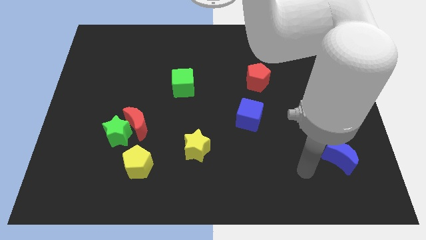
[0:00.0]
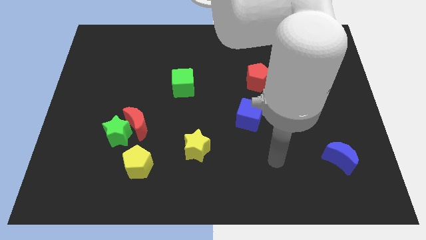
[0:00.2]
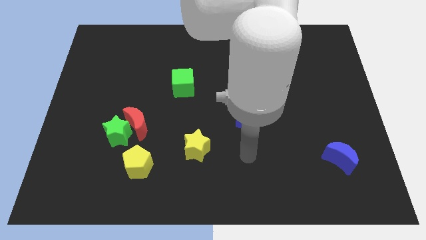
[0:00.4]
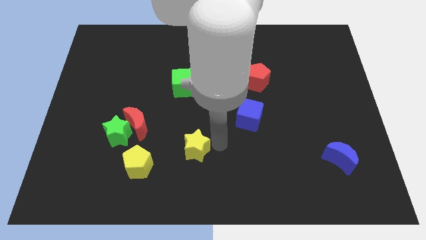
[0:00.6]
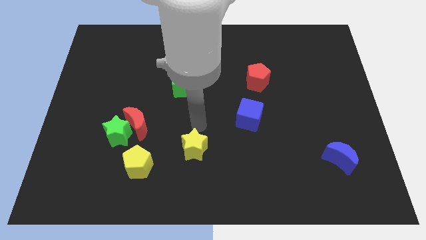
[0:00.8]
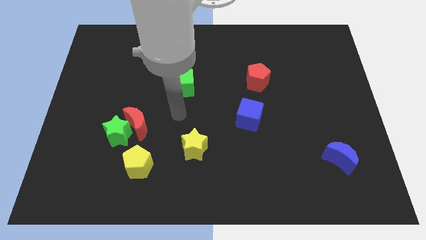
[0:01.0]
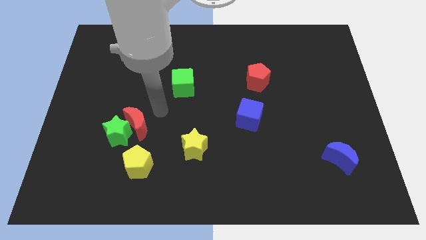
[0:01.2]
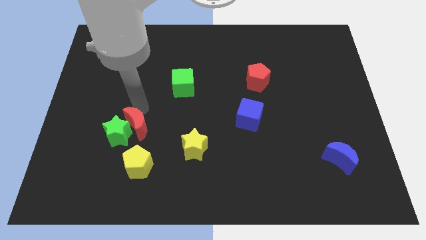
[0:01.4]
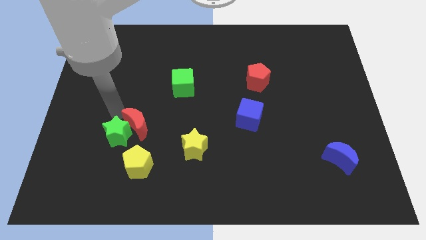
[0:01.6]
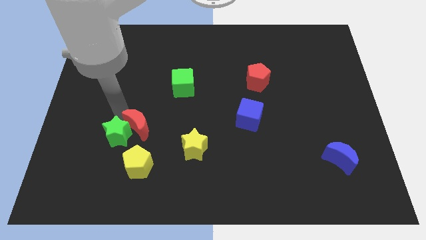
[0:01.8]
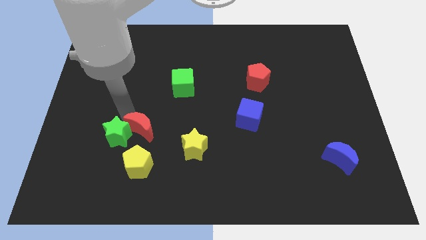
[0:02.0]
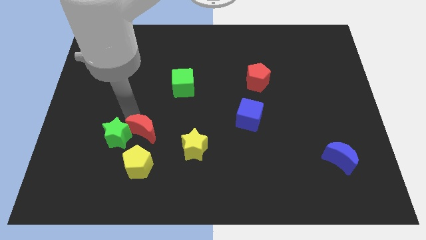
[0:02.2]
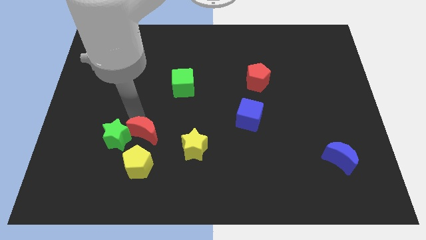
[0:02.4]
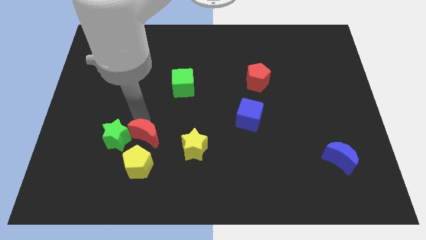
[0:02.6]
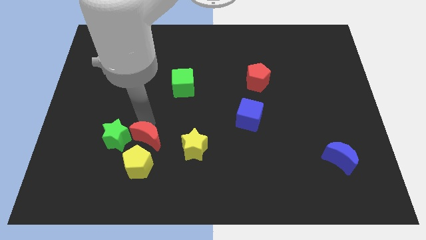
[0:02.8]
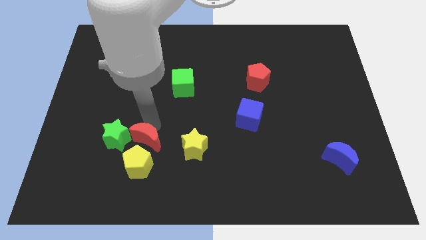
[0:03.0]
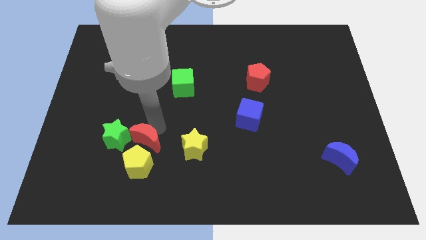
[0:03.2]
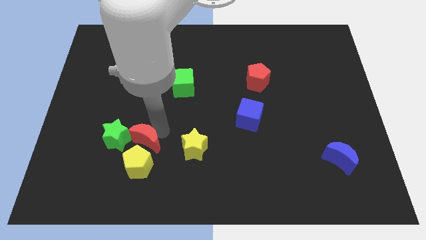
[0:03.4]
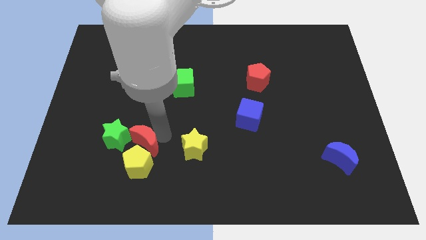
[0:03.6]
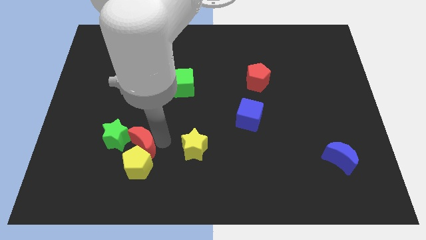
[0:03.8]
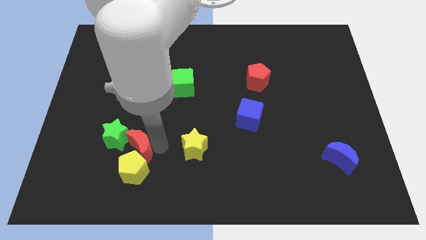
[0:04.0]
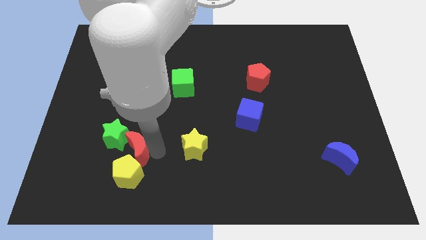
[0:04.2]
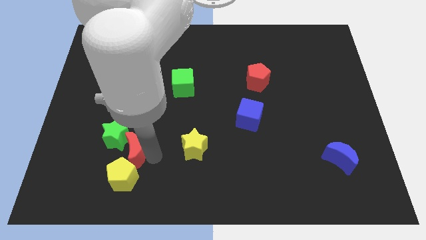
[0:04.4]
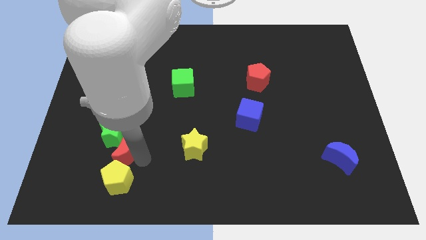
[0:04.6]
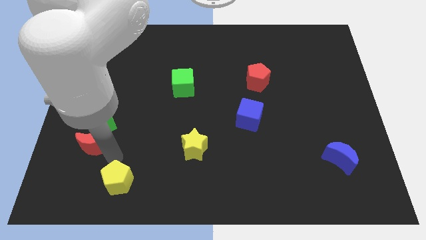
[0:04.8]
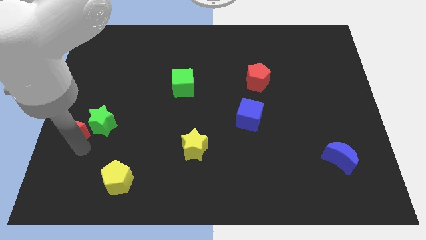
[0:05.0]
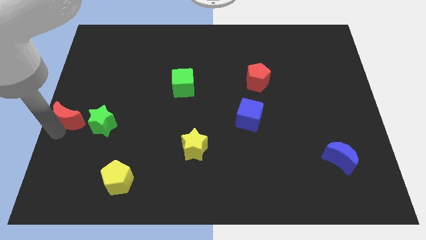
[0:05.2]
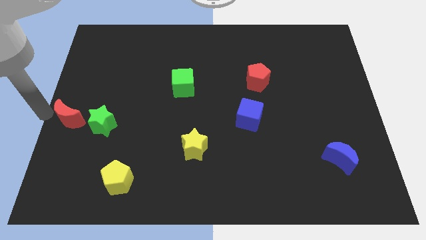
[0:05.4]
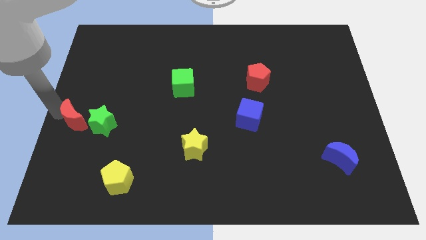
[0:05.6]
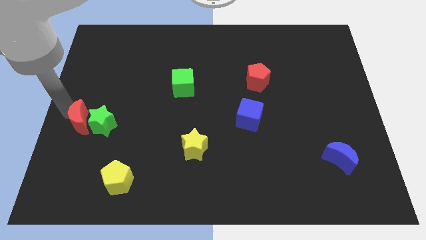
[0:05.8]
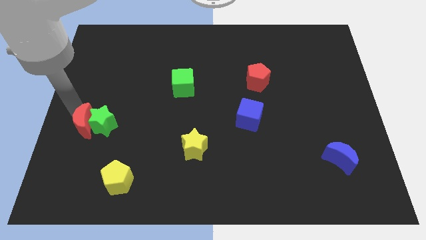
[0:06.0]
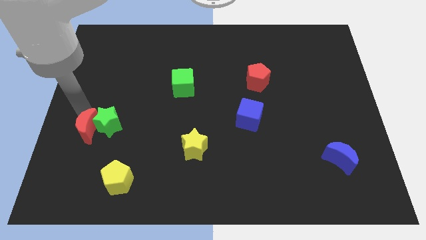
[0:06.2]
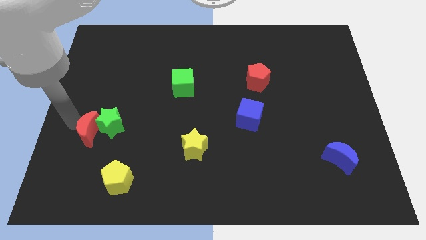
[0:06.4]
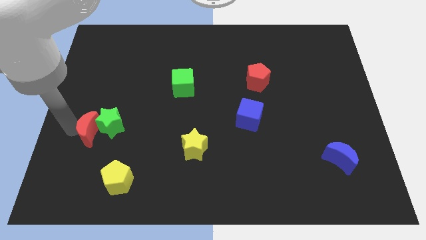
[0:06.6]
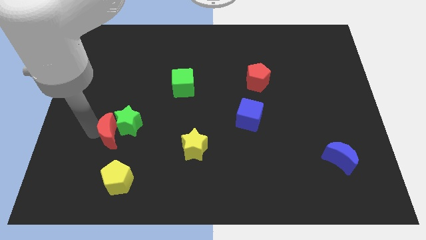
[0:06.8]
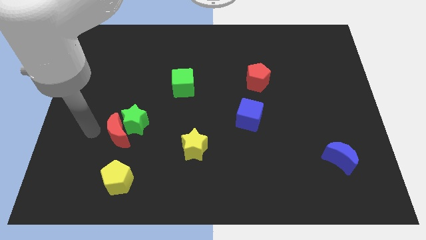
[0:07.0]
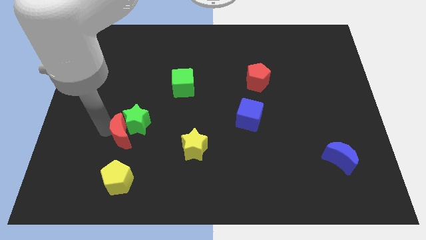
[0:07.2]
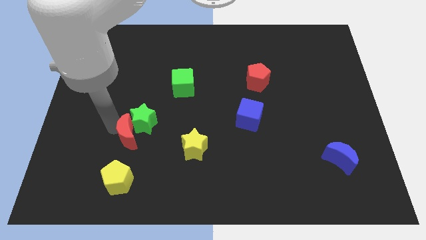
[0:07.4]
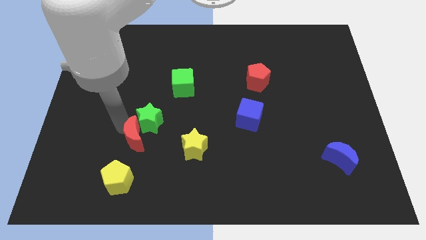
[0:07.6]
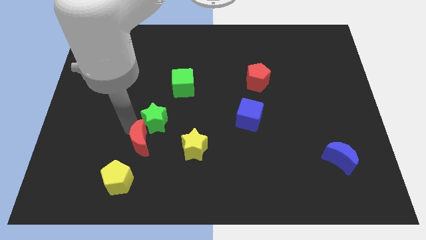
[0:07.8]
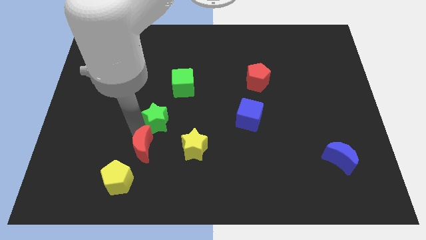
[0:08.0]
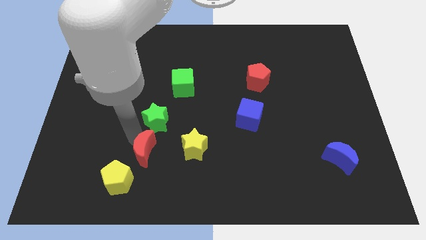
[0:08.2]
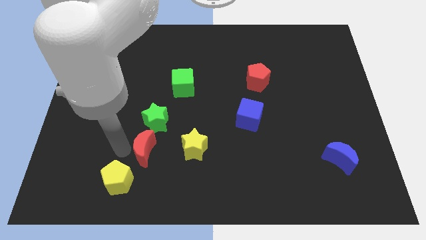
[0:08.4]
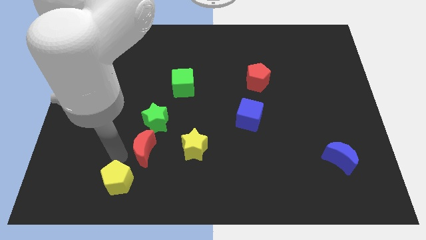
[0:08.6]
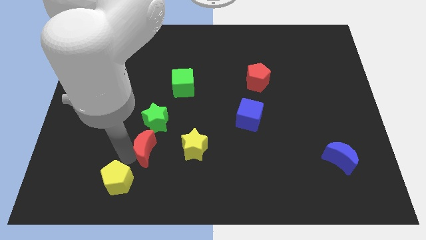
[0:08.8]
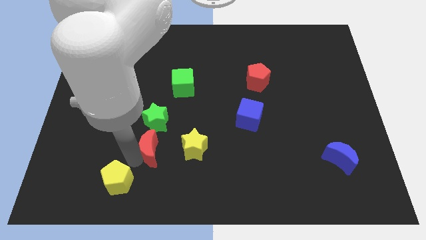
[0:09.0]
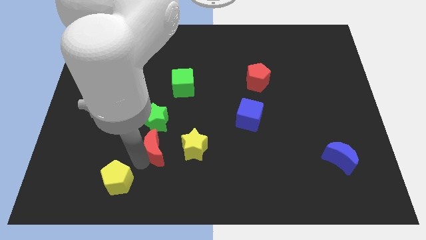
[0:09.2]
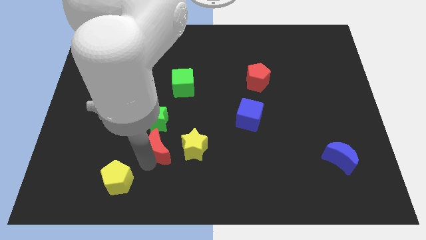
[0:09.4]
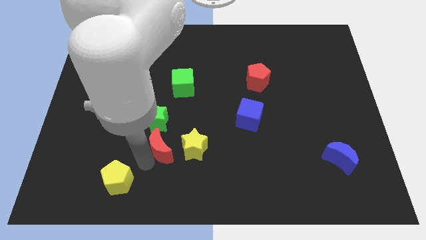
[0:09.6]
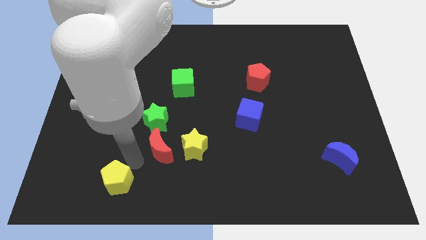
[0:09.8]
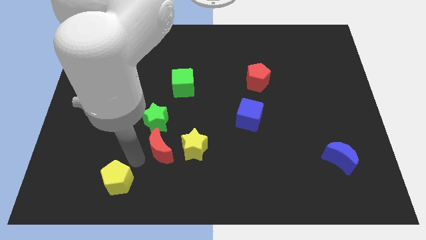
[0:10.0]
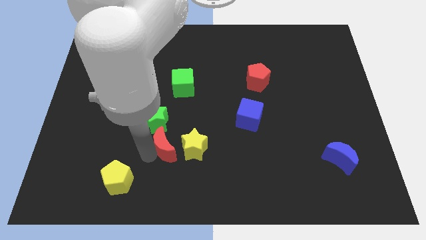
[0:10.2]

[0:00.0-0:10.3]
put the red moon close to the yellow star

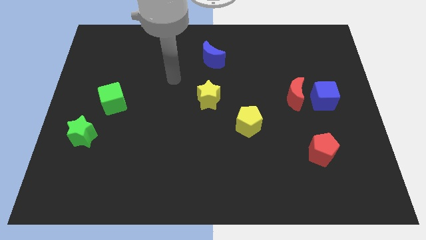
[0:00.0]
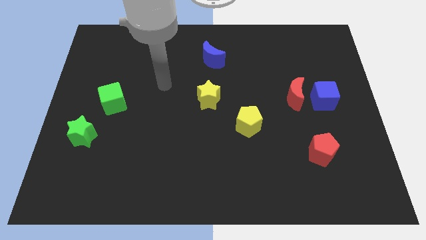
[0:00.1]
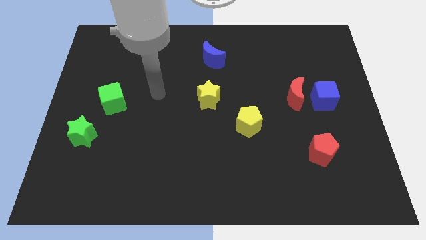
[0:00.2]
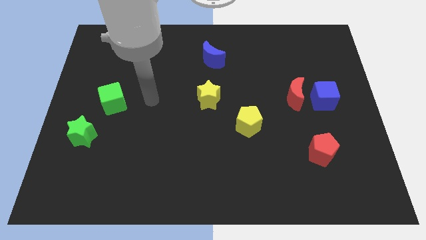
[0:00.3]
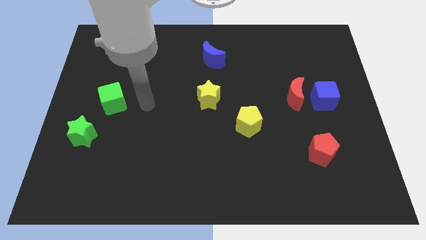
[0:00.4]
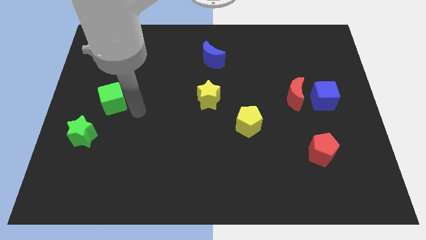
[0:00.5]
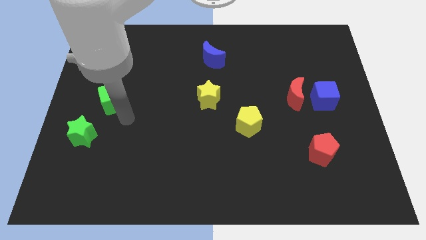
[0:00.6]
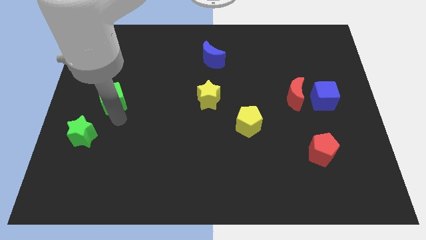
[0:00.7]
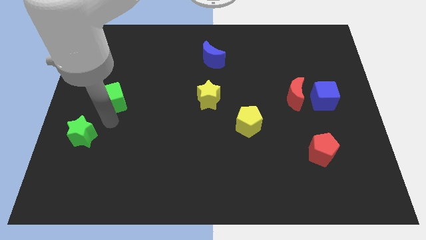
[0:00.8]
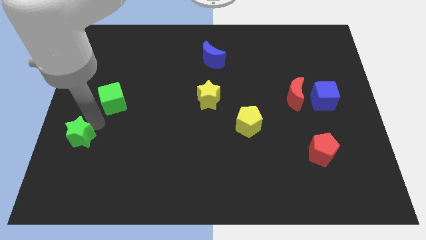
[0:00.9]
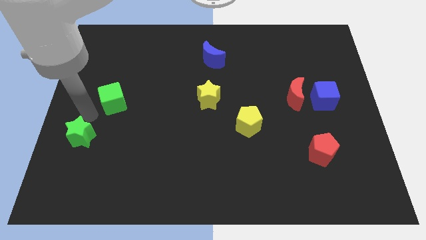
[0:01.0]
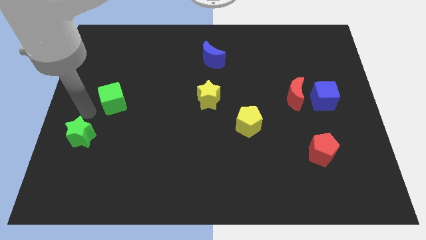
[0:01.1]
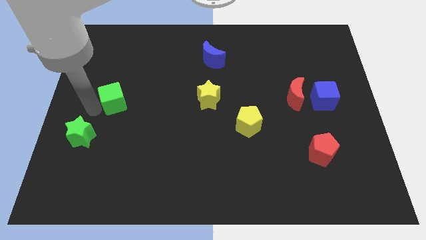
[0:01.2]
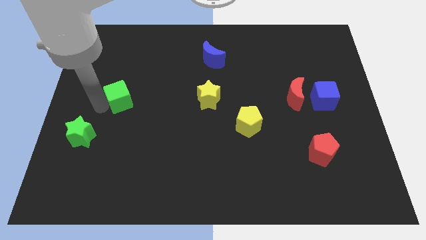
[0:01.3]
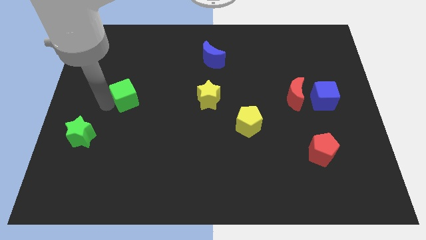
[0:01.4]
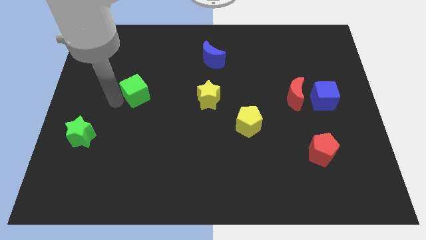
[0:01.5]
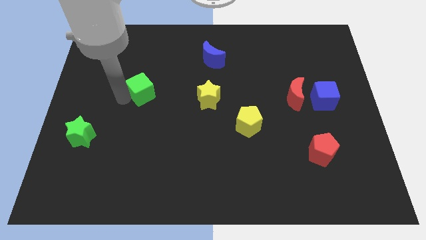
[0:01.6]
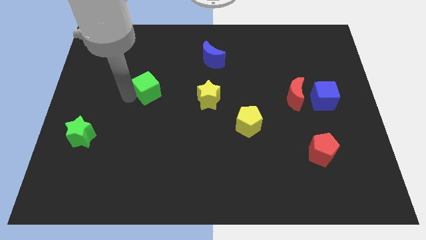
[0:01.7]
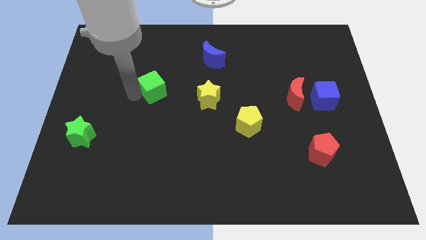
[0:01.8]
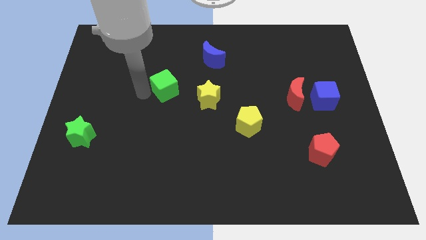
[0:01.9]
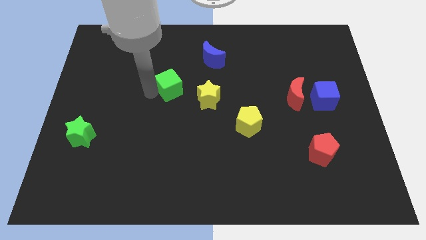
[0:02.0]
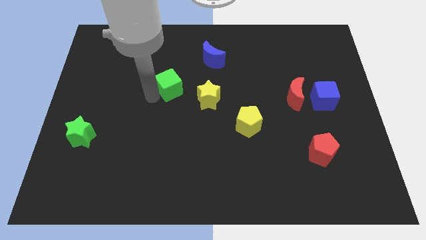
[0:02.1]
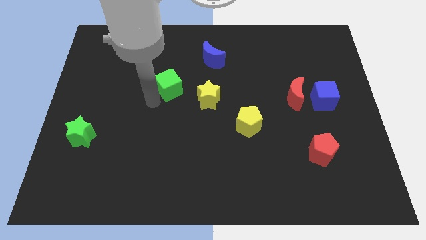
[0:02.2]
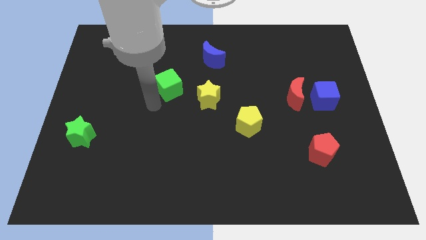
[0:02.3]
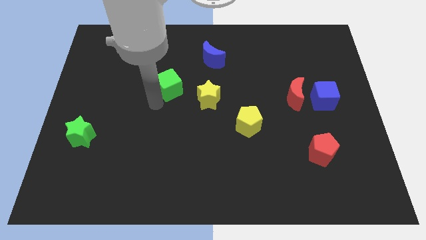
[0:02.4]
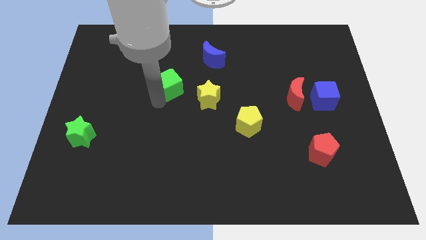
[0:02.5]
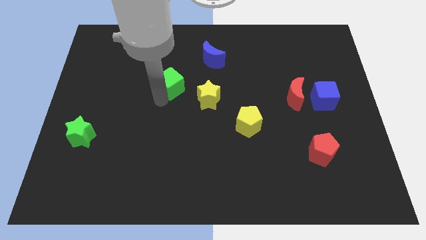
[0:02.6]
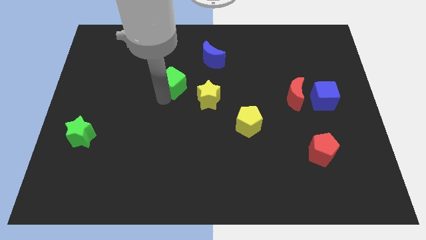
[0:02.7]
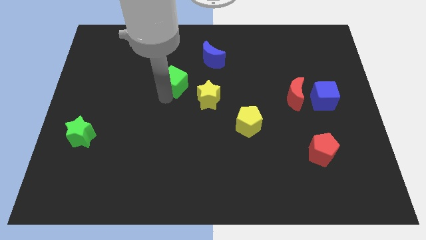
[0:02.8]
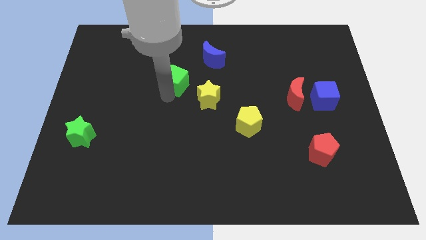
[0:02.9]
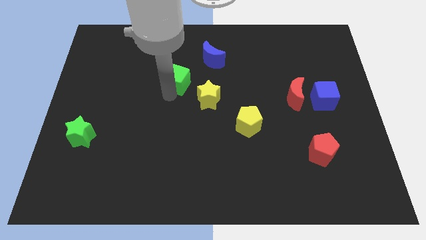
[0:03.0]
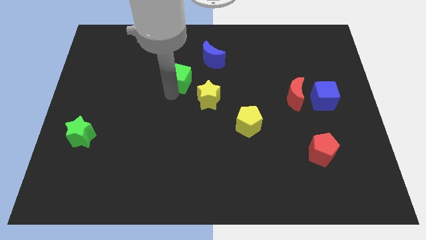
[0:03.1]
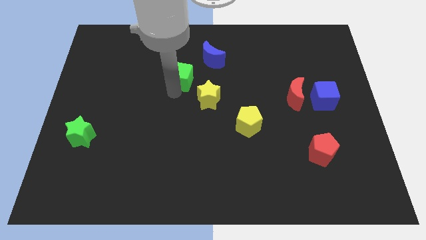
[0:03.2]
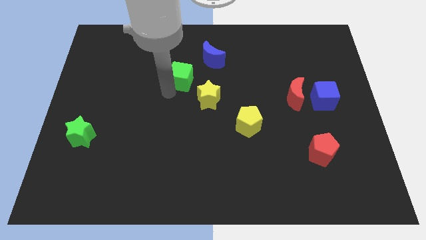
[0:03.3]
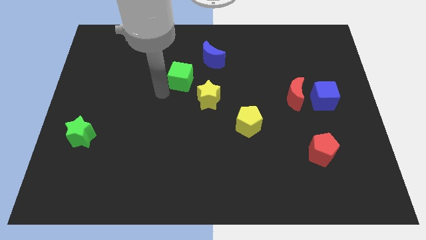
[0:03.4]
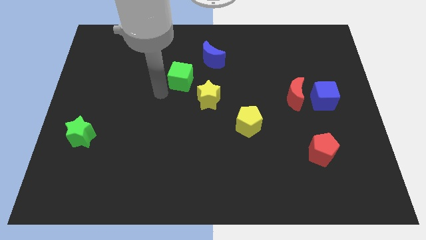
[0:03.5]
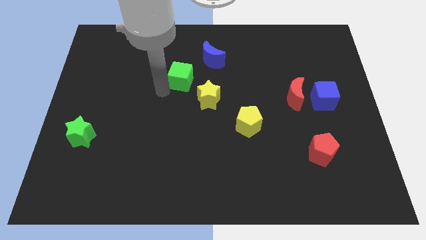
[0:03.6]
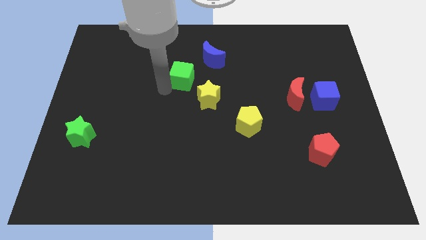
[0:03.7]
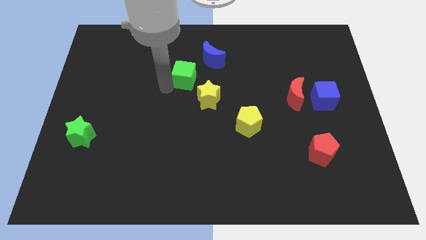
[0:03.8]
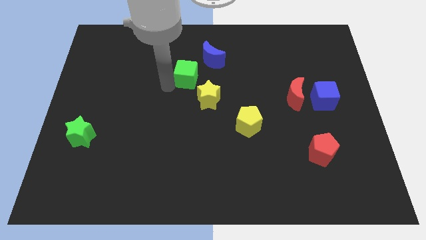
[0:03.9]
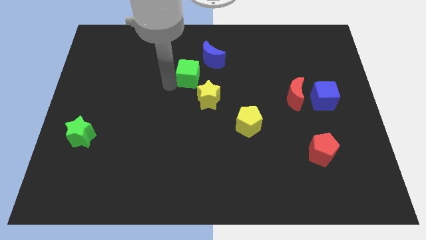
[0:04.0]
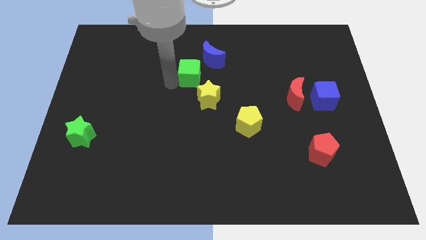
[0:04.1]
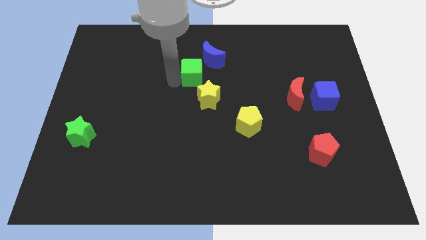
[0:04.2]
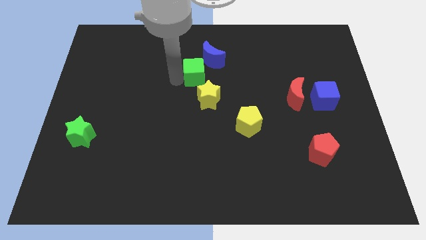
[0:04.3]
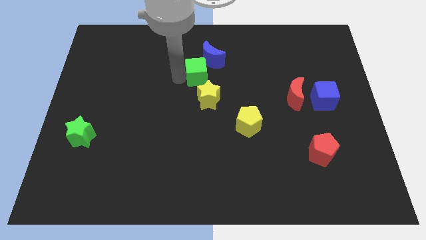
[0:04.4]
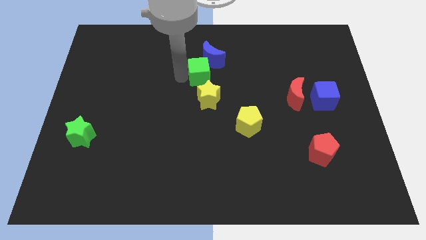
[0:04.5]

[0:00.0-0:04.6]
slide the green cube to the blue moon
